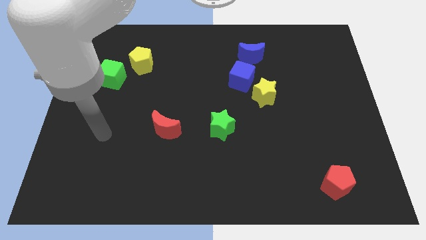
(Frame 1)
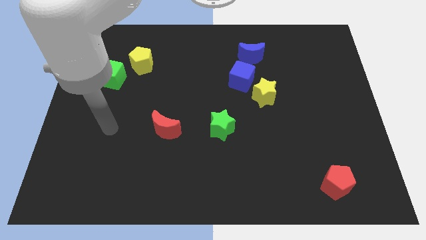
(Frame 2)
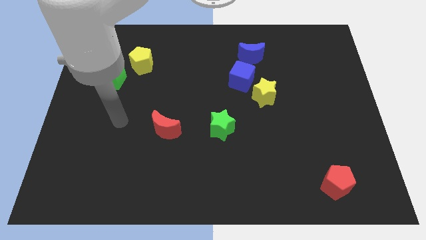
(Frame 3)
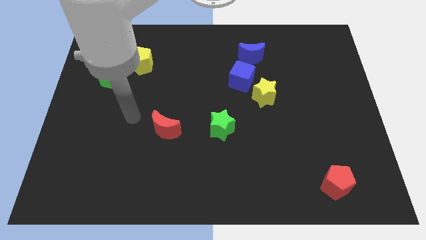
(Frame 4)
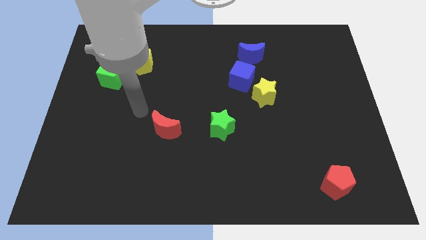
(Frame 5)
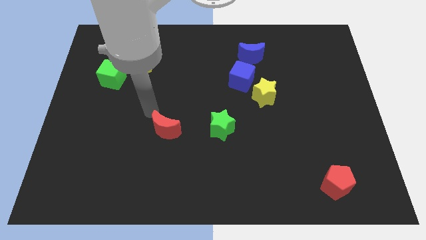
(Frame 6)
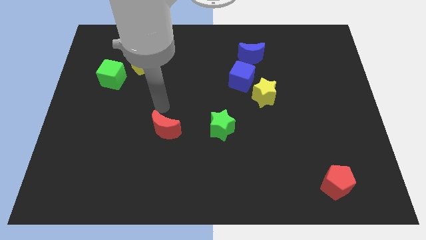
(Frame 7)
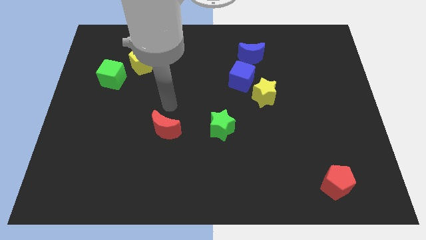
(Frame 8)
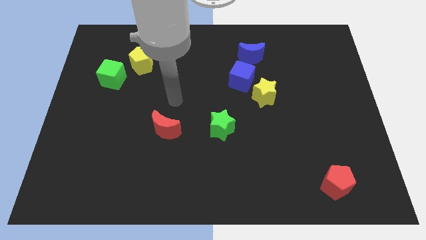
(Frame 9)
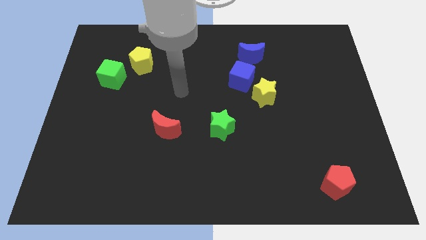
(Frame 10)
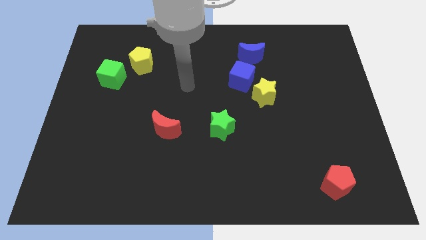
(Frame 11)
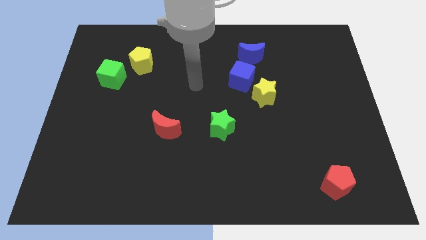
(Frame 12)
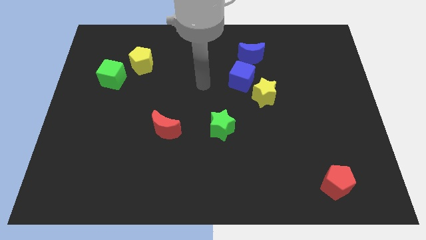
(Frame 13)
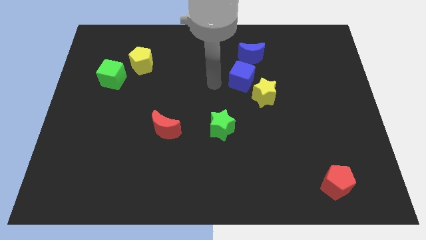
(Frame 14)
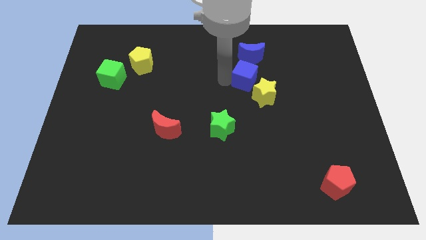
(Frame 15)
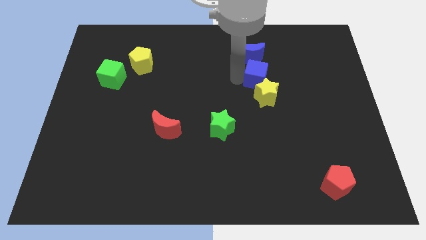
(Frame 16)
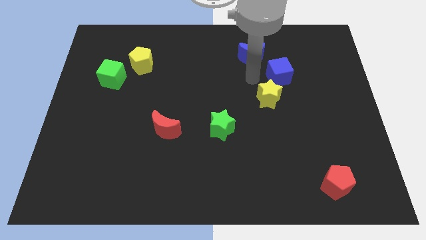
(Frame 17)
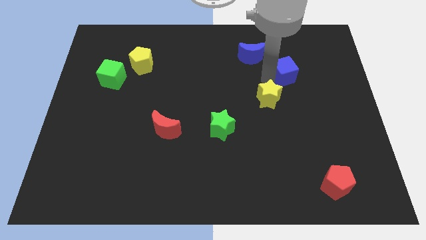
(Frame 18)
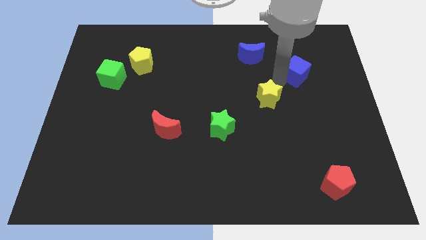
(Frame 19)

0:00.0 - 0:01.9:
move the yellow star away from the blue cube

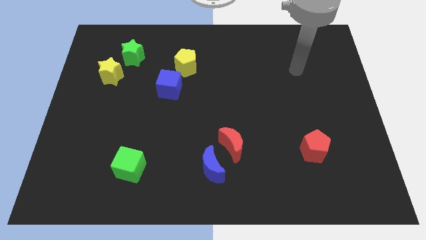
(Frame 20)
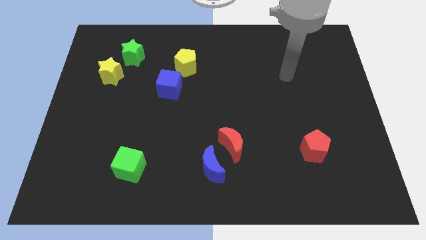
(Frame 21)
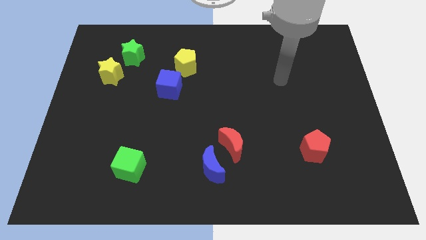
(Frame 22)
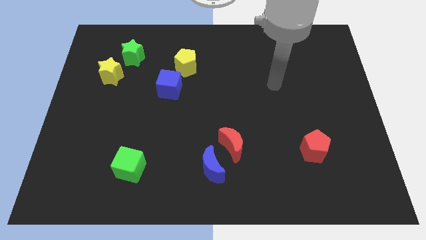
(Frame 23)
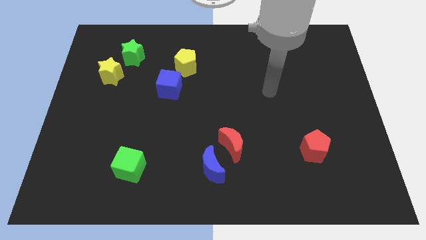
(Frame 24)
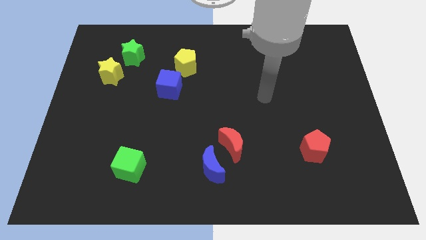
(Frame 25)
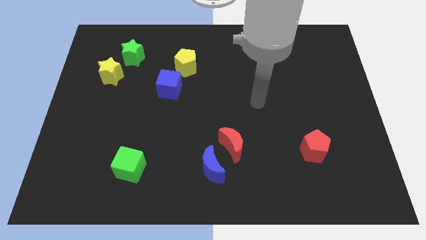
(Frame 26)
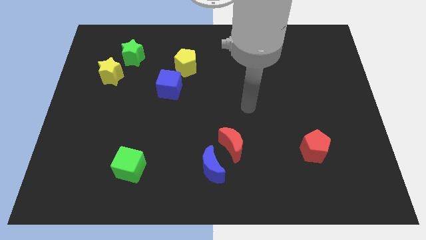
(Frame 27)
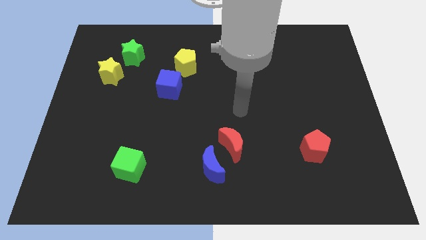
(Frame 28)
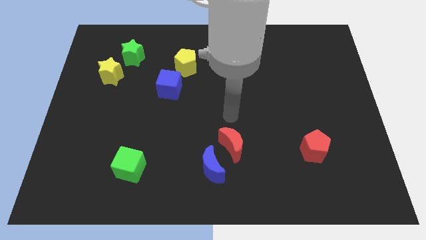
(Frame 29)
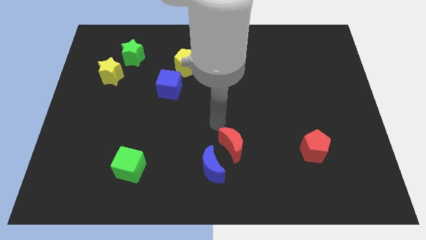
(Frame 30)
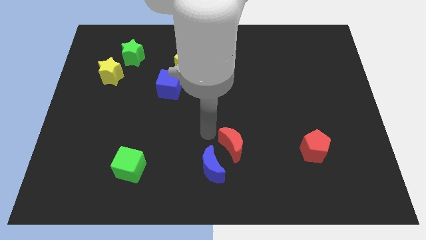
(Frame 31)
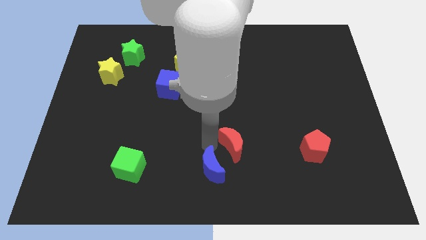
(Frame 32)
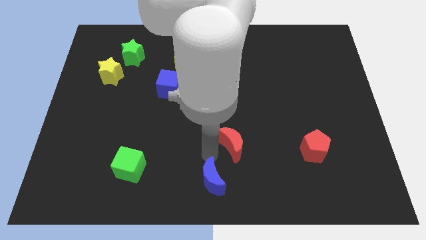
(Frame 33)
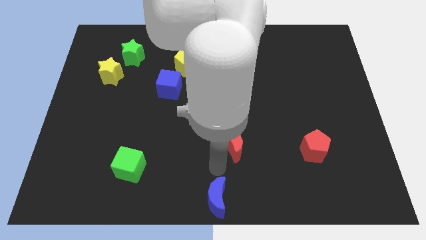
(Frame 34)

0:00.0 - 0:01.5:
move the red moon away from the blue moon

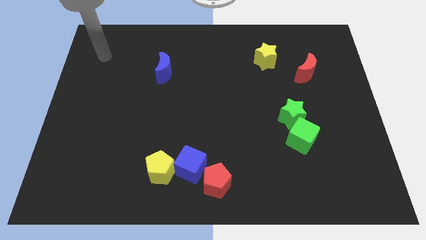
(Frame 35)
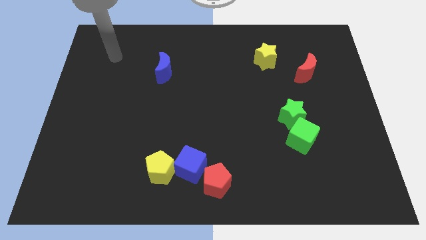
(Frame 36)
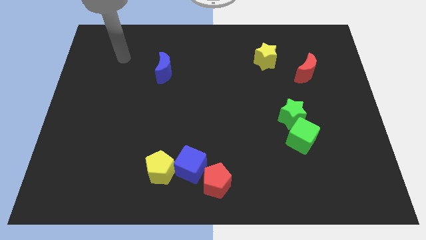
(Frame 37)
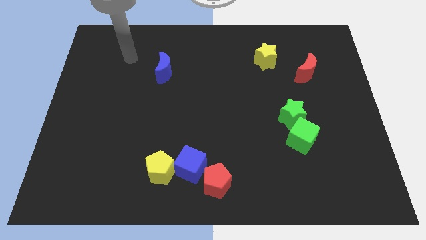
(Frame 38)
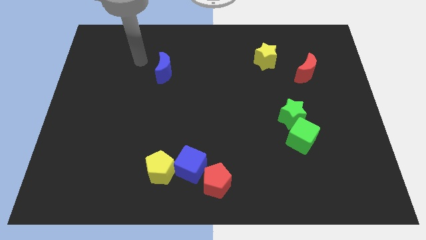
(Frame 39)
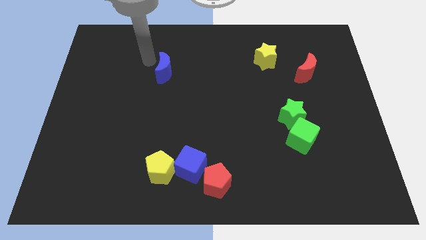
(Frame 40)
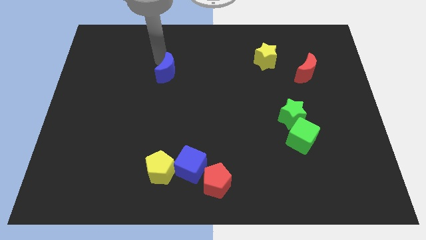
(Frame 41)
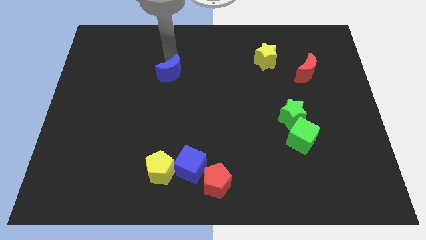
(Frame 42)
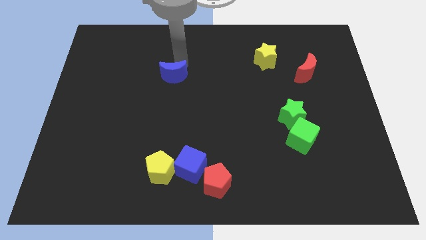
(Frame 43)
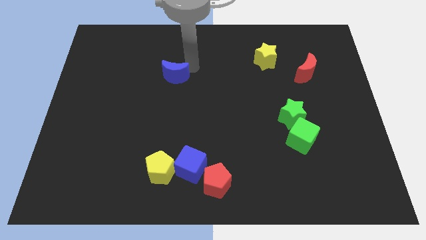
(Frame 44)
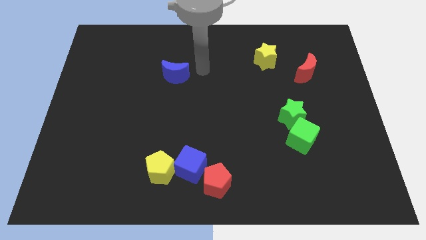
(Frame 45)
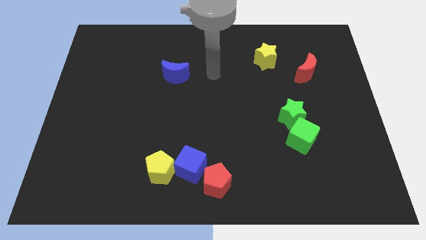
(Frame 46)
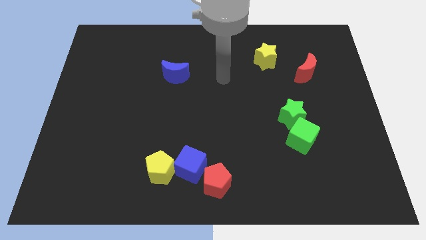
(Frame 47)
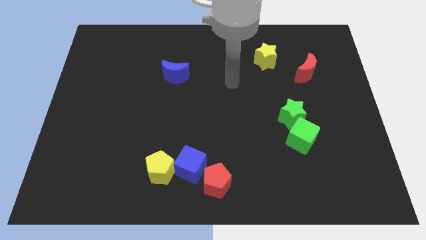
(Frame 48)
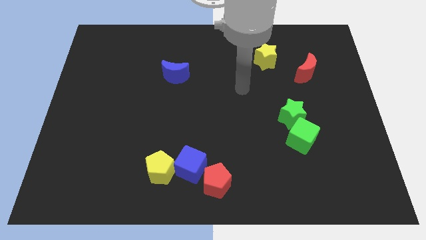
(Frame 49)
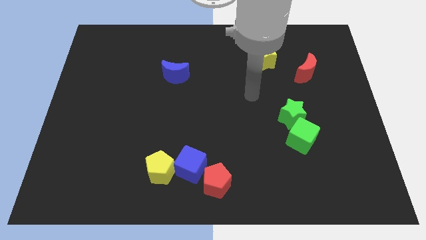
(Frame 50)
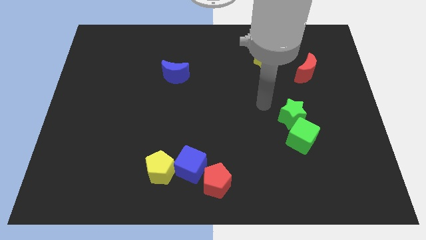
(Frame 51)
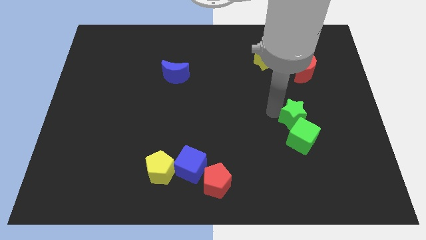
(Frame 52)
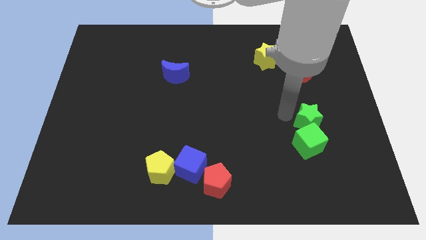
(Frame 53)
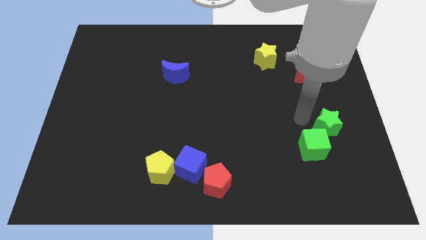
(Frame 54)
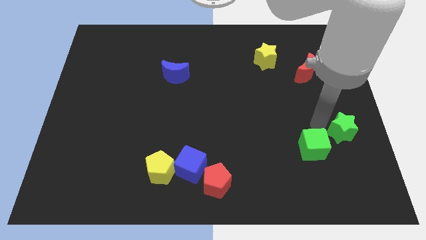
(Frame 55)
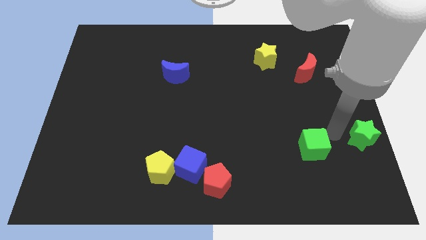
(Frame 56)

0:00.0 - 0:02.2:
move the green cube away from the green star

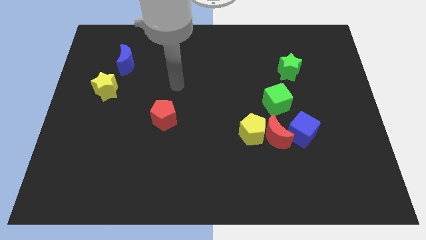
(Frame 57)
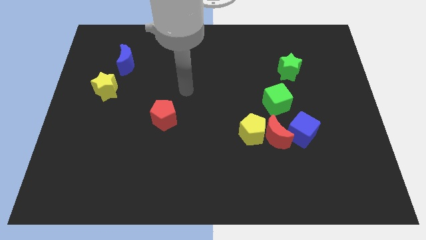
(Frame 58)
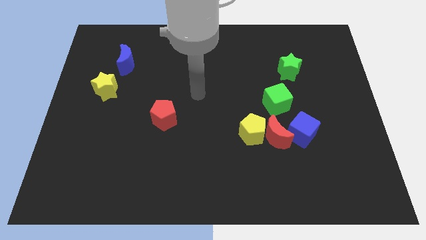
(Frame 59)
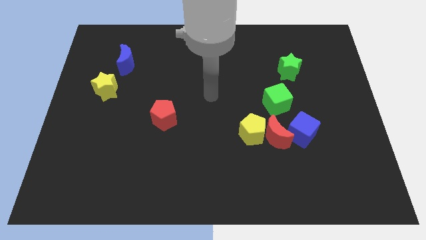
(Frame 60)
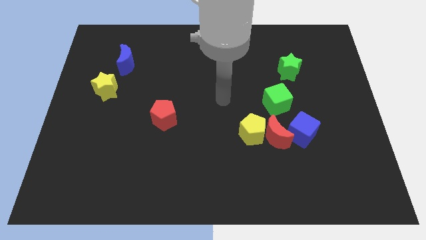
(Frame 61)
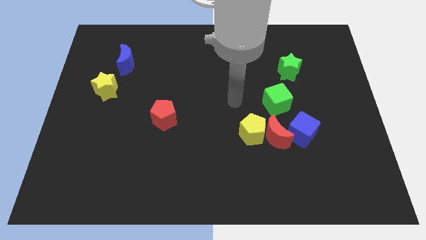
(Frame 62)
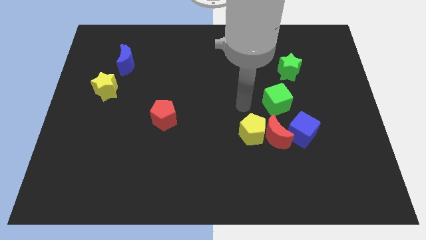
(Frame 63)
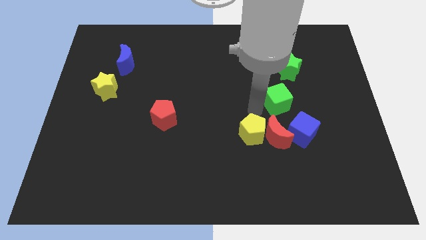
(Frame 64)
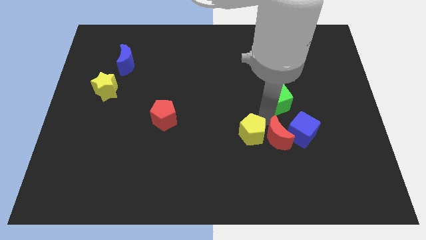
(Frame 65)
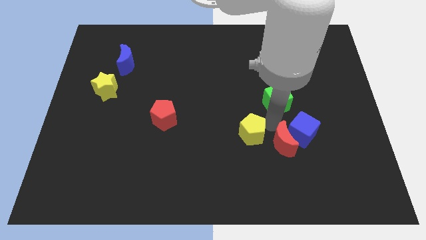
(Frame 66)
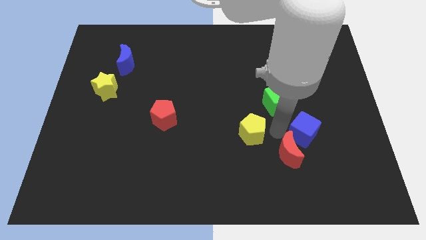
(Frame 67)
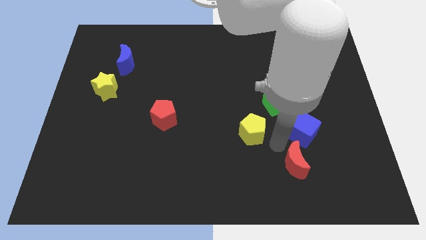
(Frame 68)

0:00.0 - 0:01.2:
move the yellow pentagon away from the red moon

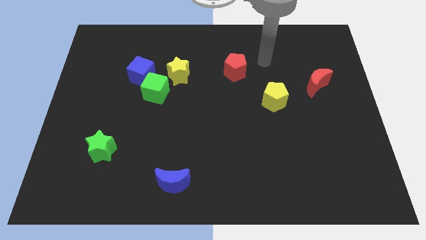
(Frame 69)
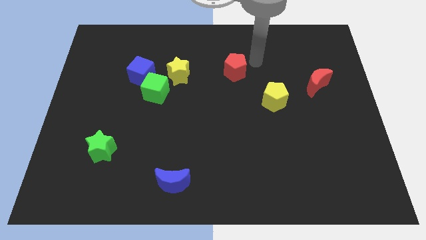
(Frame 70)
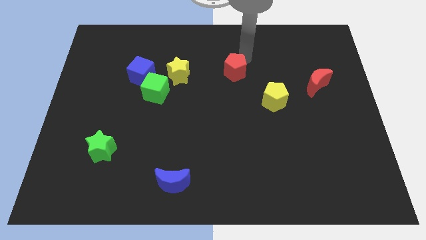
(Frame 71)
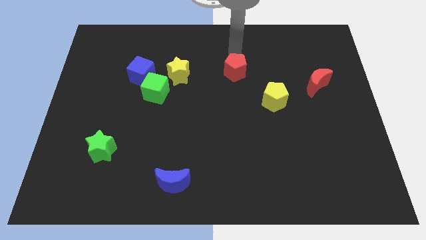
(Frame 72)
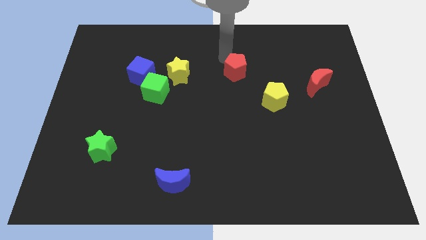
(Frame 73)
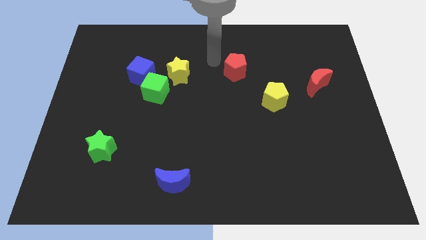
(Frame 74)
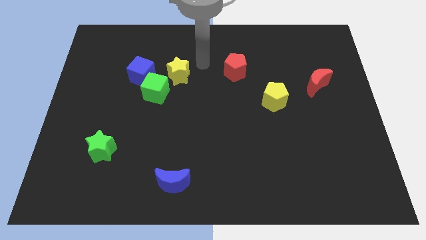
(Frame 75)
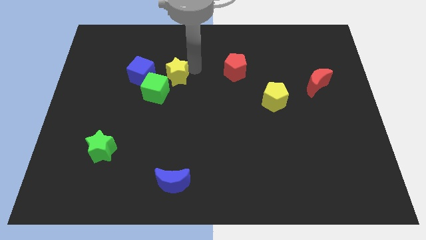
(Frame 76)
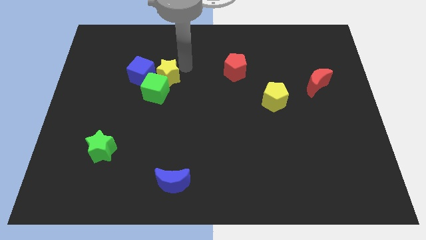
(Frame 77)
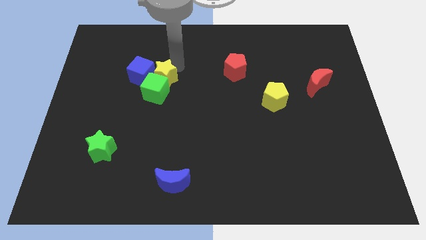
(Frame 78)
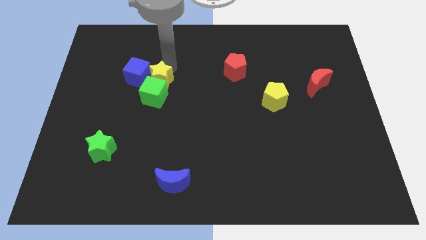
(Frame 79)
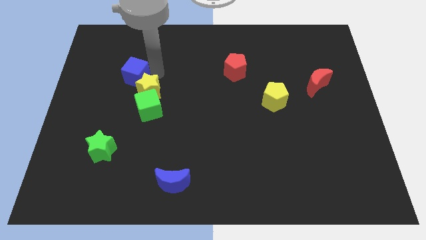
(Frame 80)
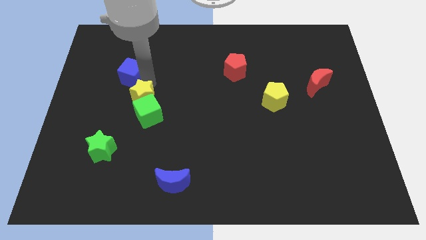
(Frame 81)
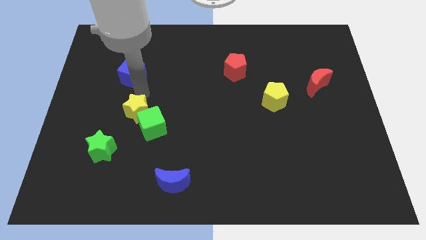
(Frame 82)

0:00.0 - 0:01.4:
pull the green cube apart from the blue cube and yellow star

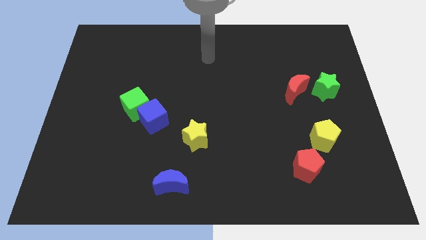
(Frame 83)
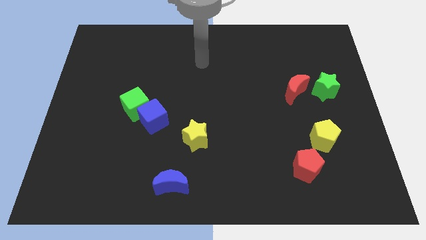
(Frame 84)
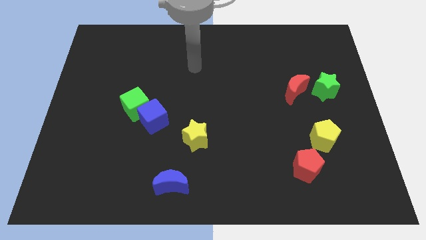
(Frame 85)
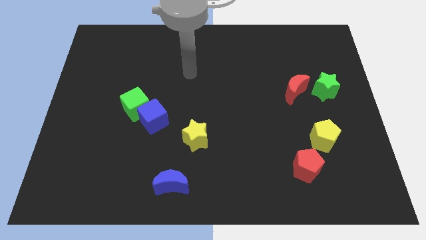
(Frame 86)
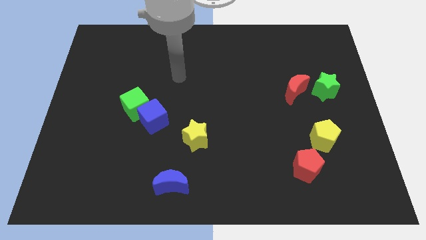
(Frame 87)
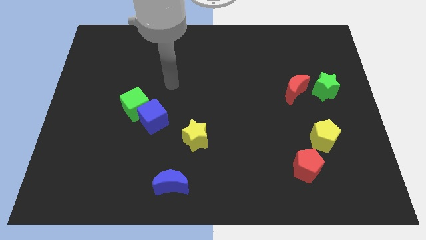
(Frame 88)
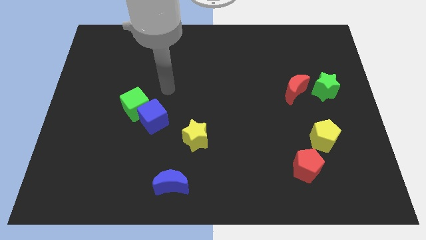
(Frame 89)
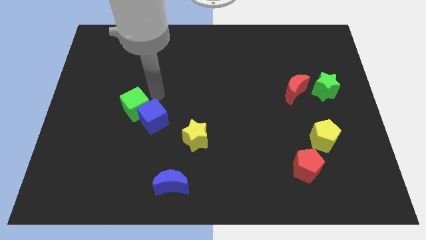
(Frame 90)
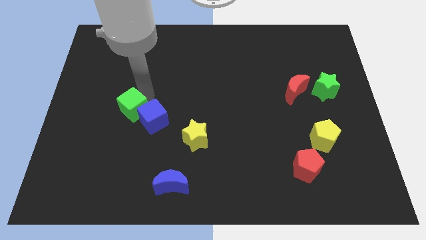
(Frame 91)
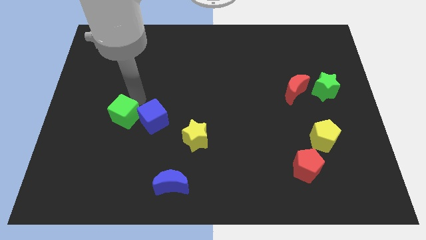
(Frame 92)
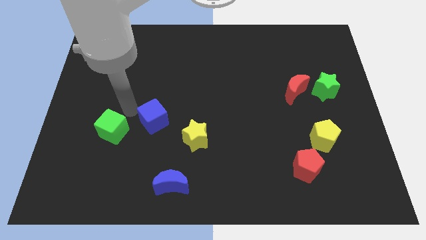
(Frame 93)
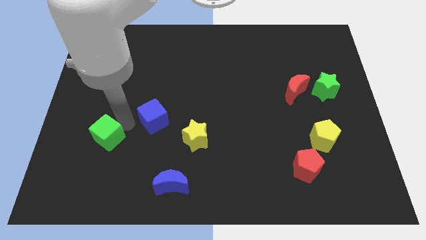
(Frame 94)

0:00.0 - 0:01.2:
move the blue cube away from the green cube
